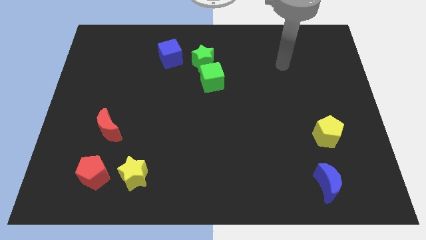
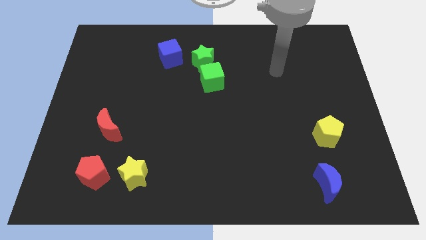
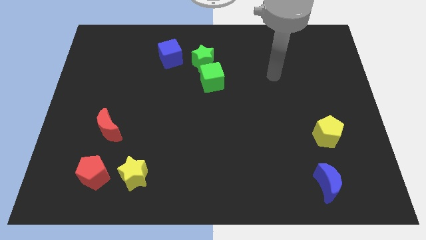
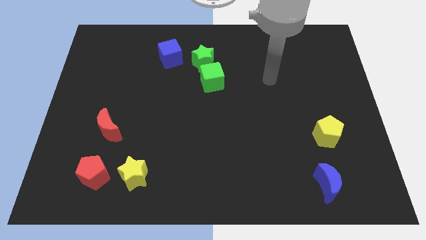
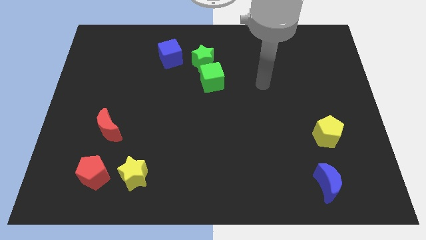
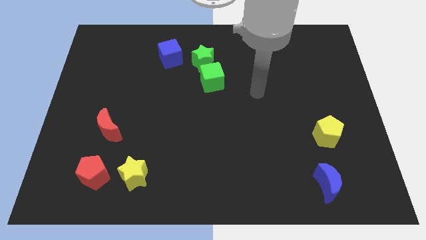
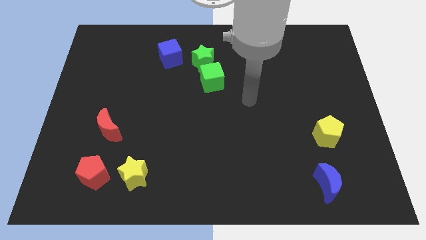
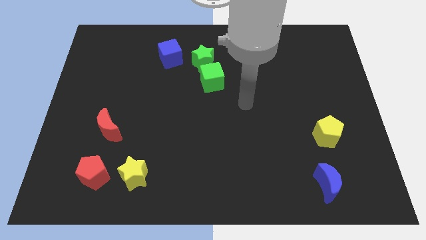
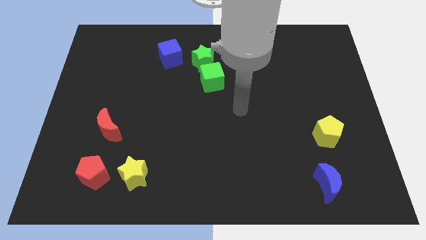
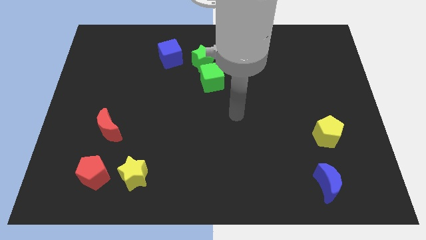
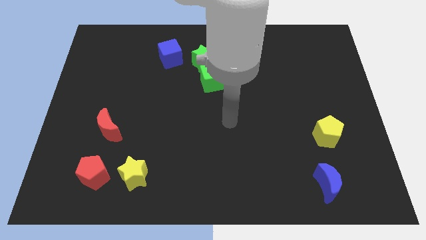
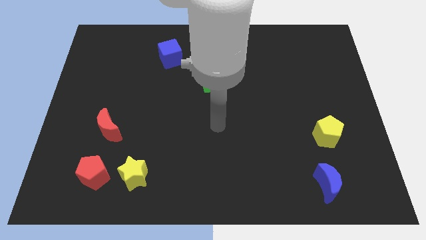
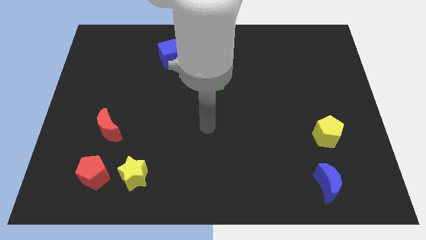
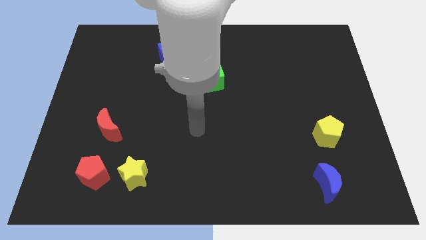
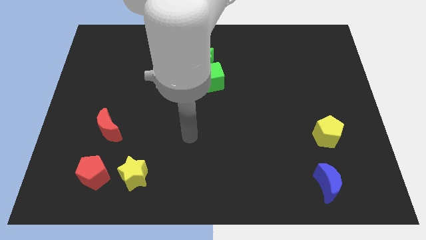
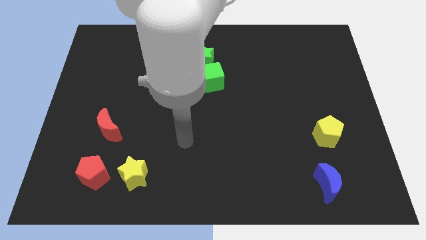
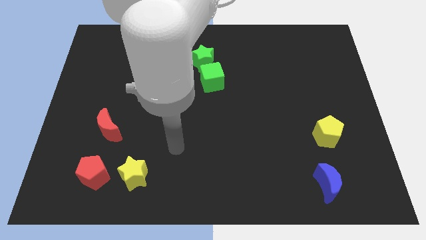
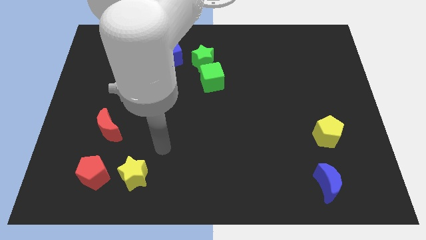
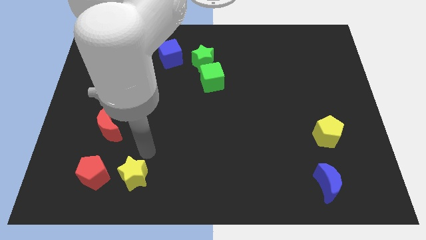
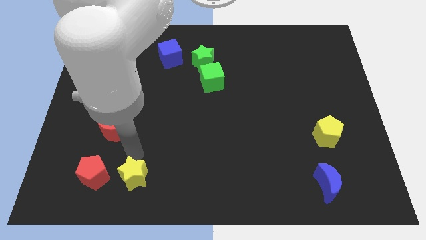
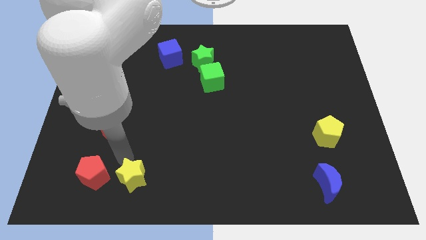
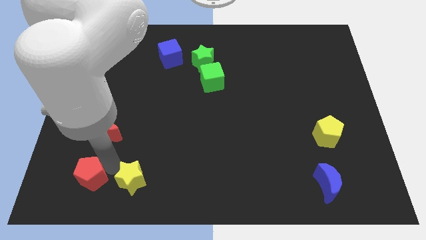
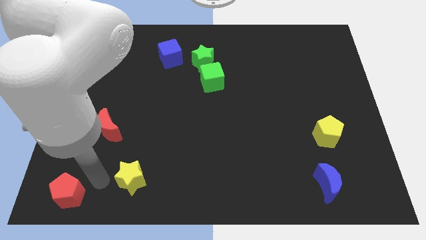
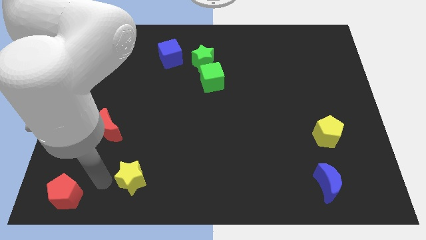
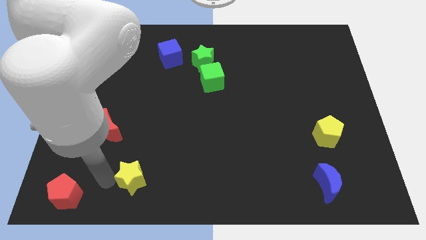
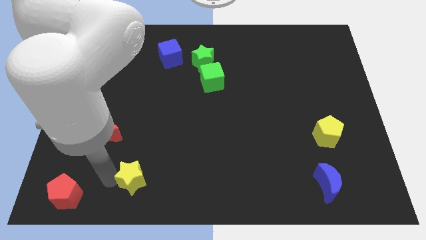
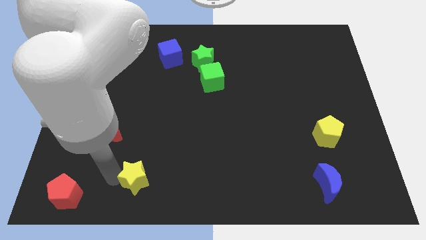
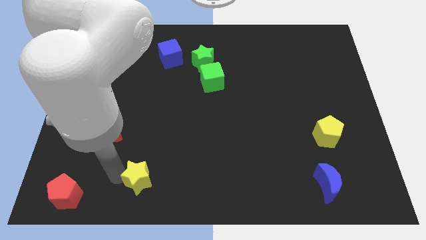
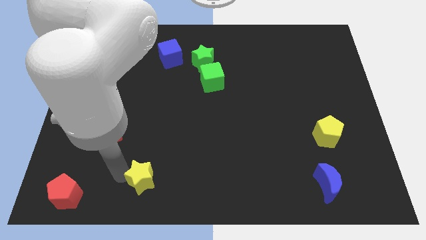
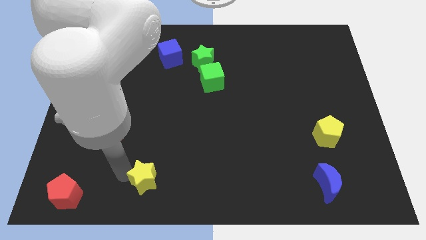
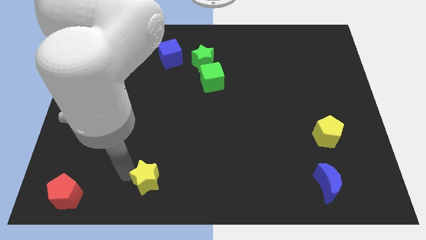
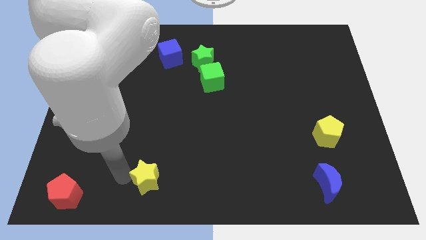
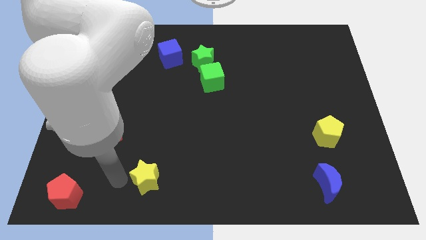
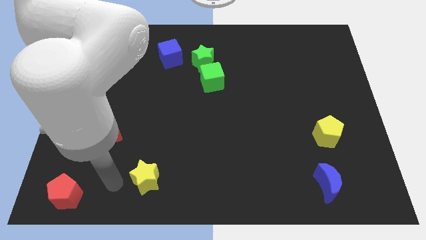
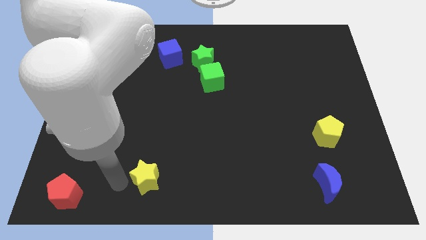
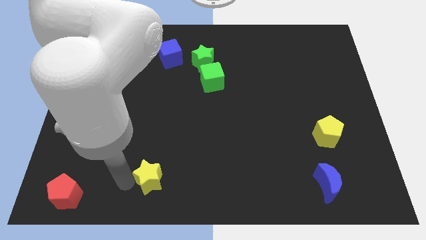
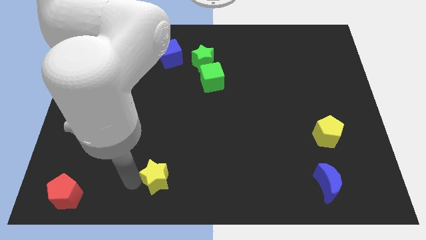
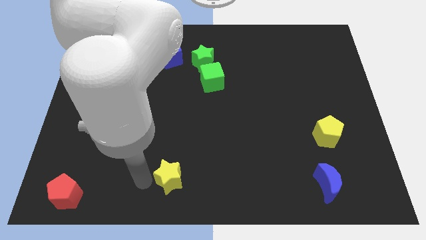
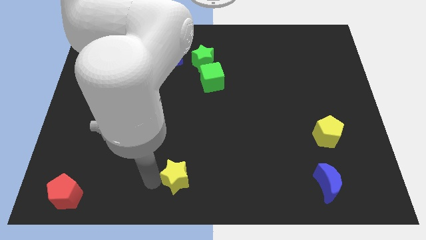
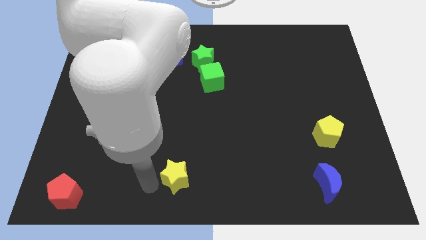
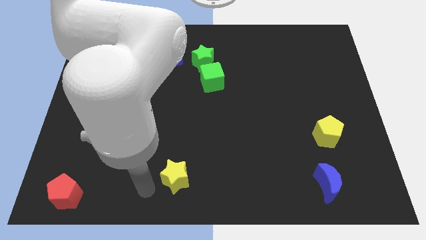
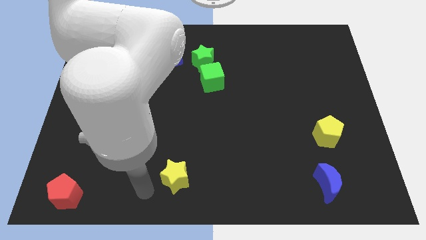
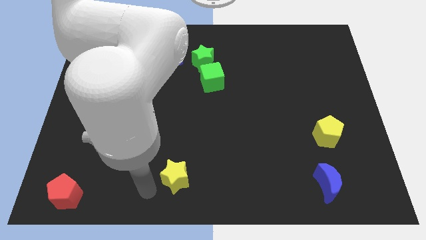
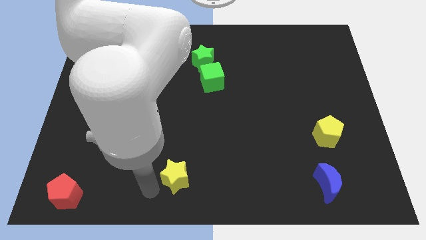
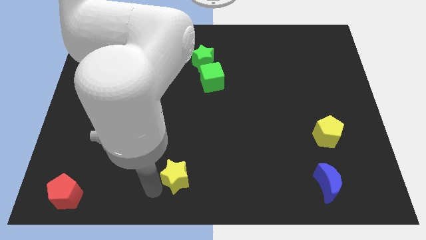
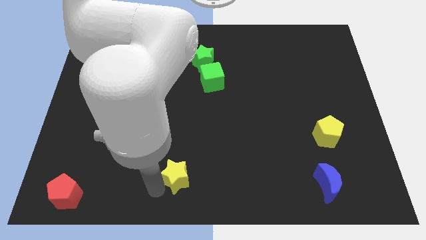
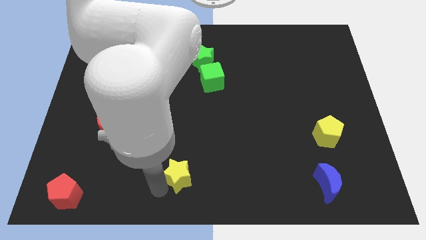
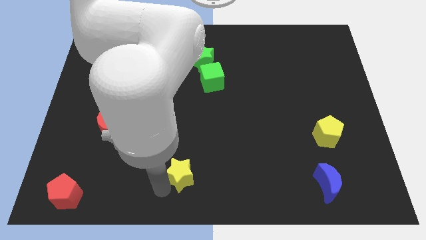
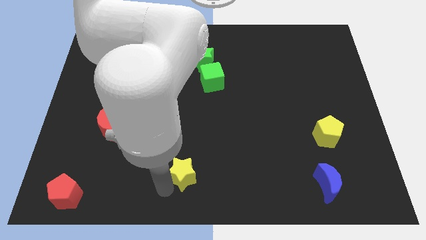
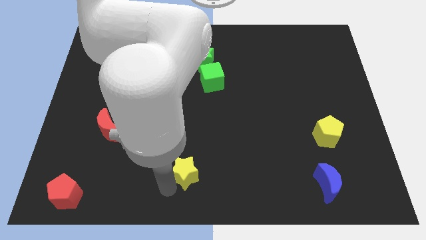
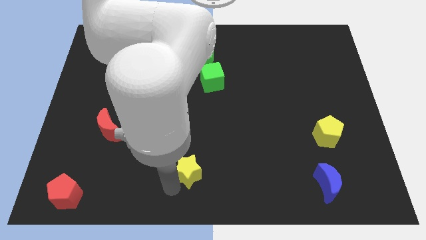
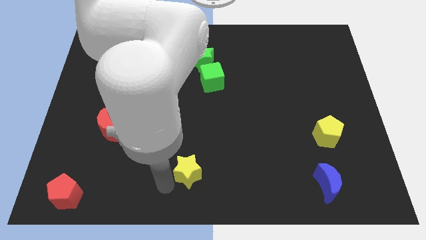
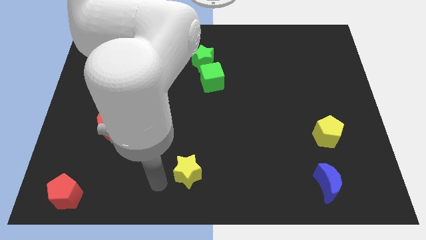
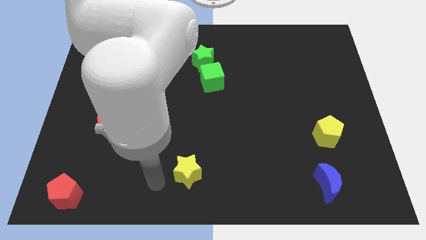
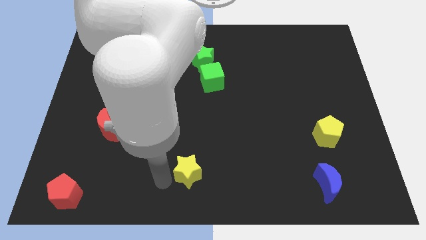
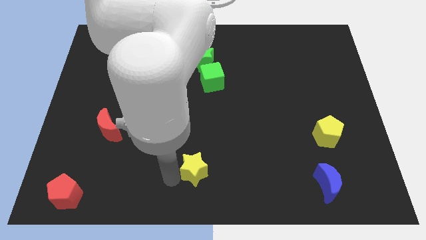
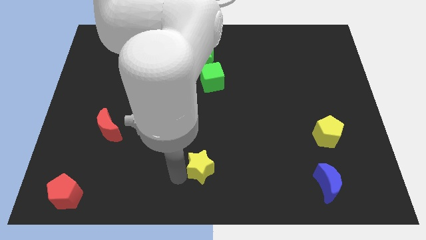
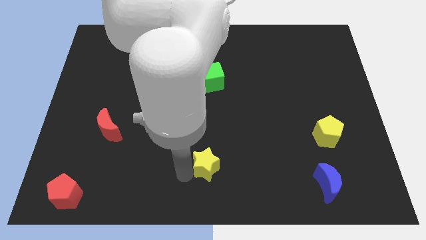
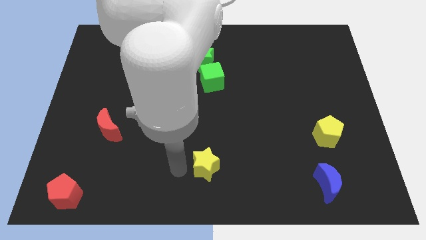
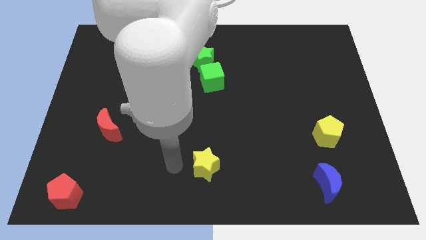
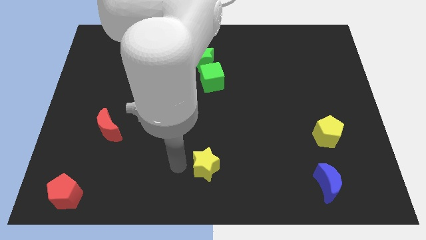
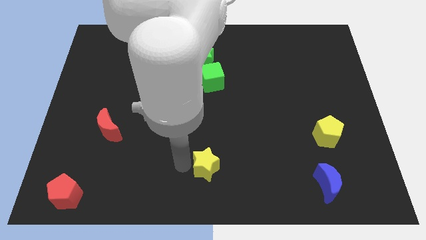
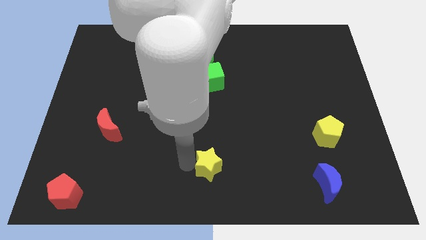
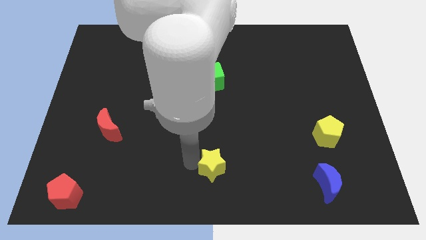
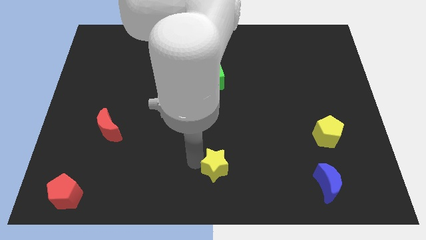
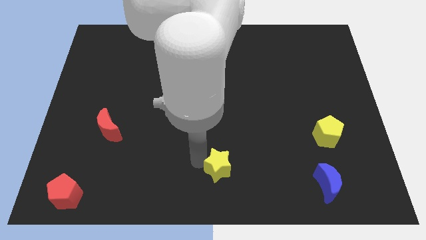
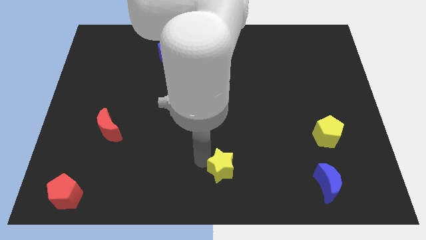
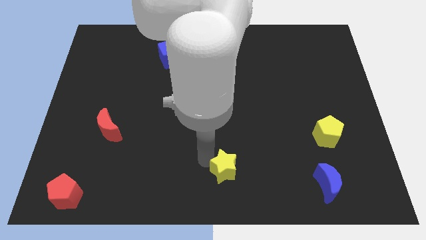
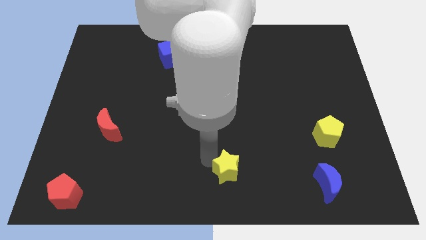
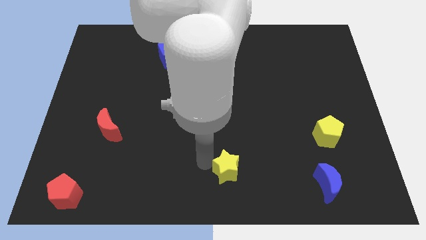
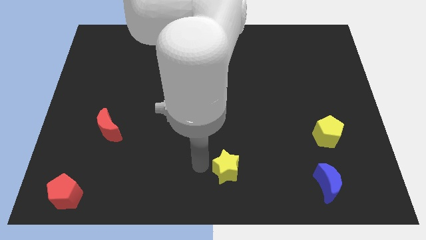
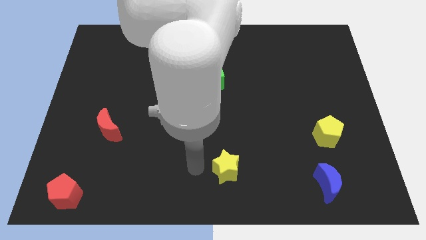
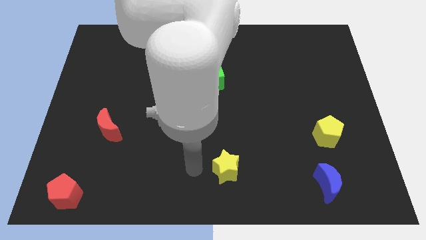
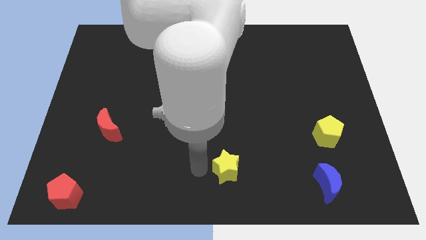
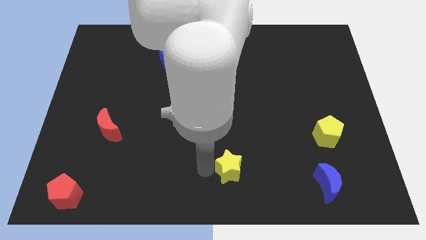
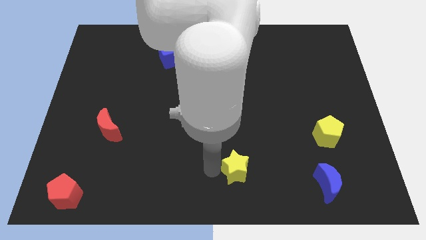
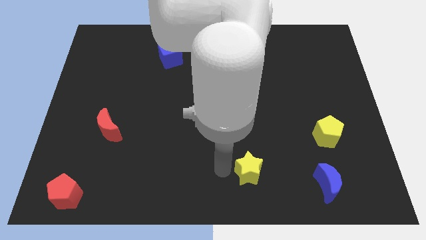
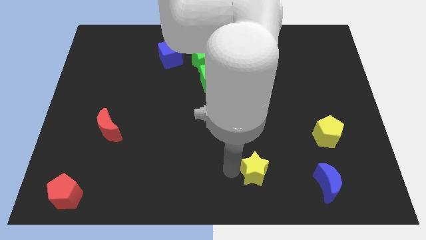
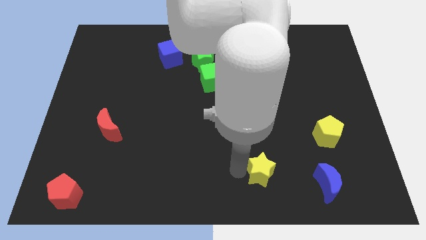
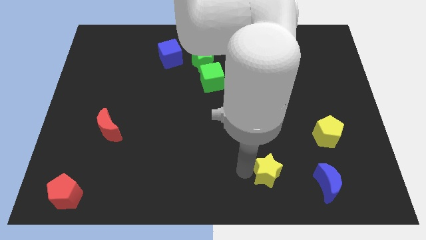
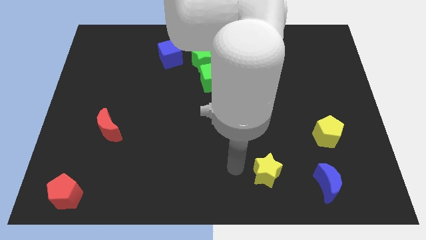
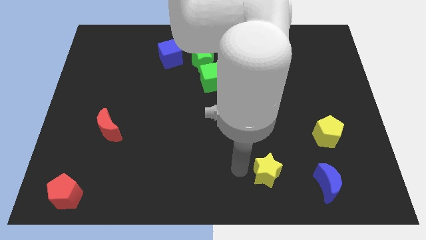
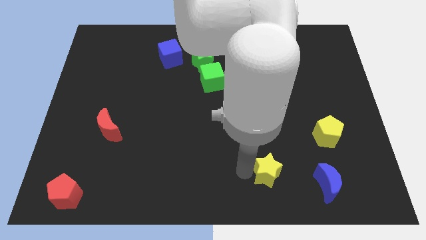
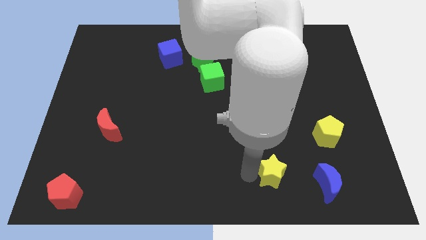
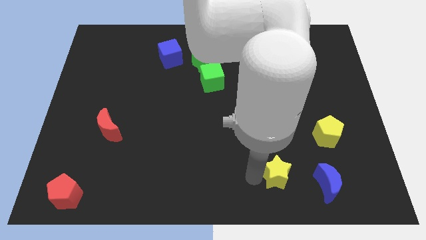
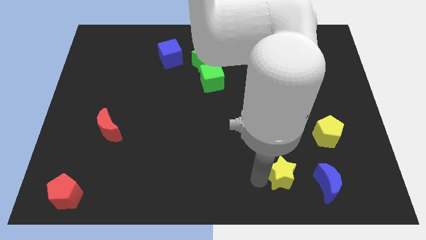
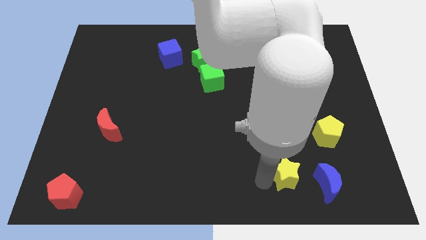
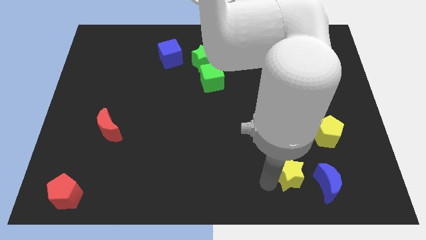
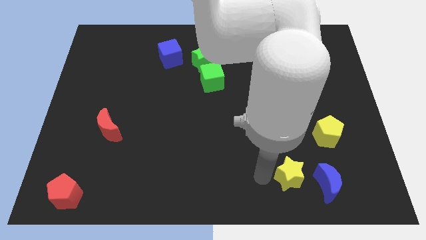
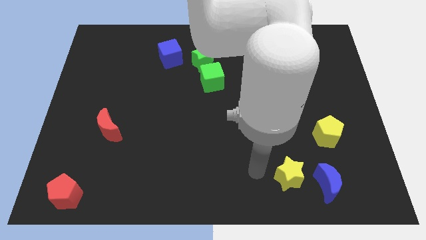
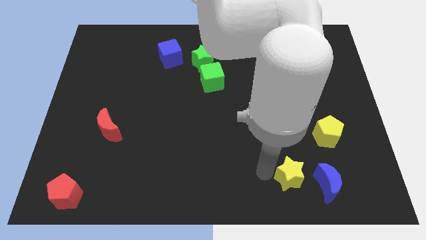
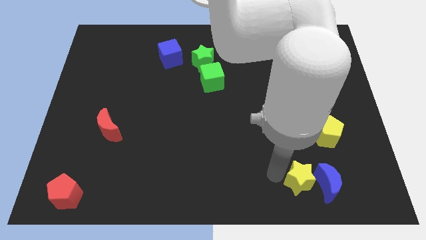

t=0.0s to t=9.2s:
put the yellow star close to the blue moon
